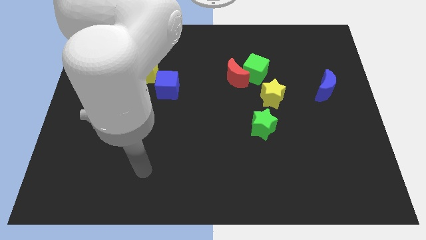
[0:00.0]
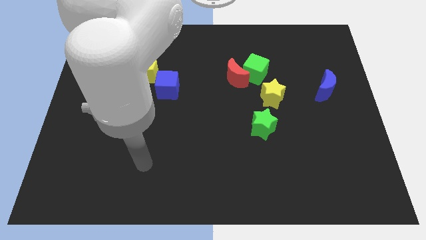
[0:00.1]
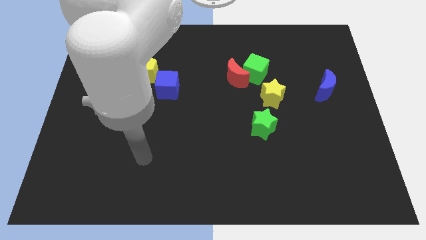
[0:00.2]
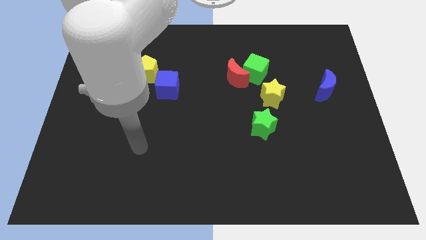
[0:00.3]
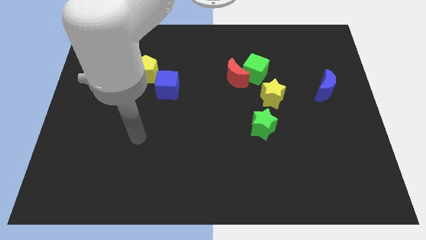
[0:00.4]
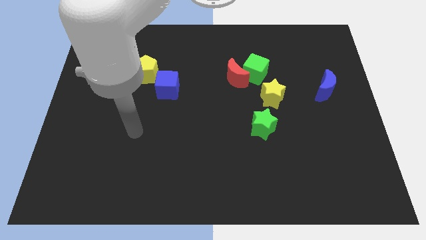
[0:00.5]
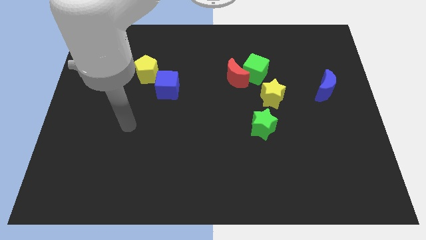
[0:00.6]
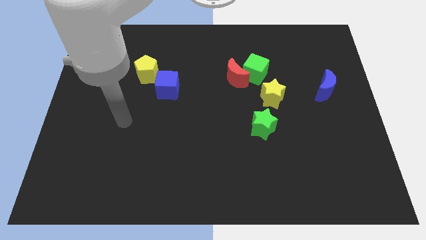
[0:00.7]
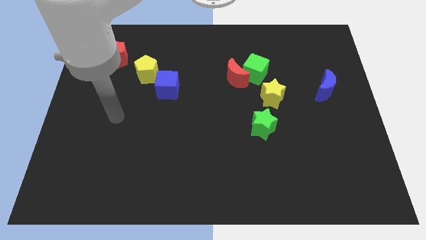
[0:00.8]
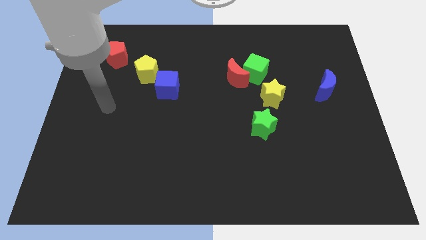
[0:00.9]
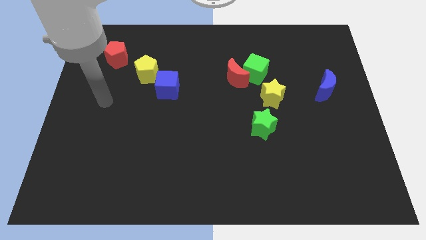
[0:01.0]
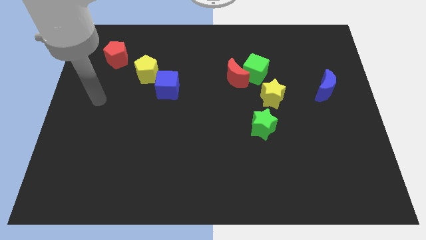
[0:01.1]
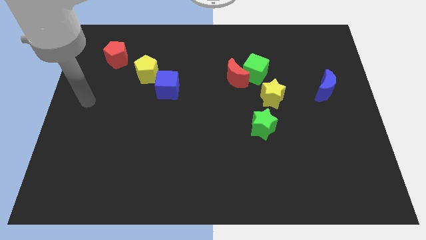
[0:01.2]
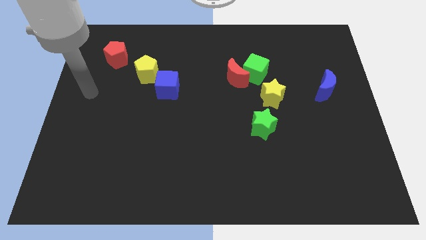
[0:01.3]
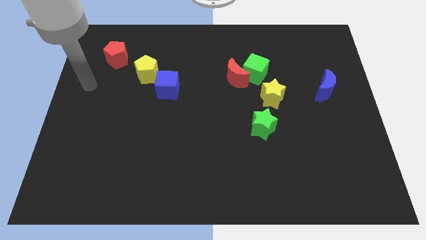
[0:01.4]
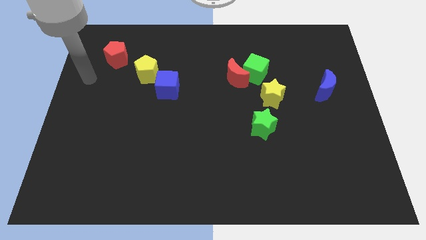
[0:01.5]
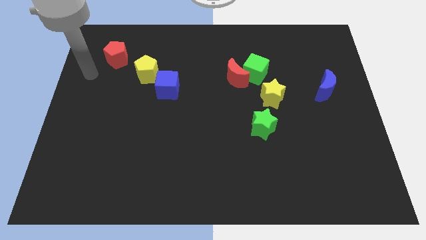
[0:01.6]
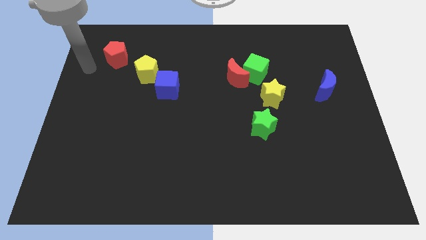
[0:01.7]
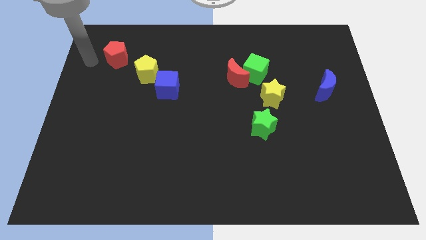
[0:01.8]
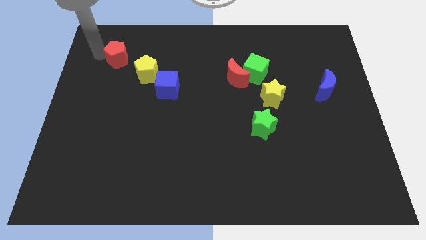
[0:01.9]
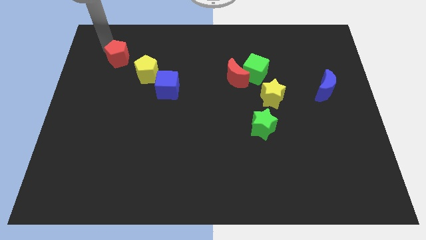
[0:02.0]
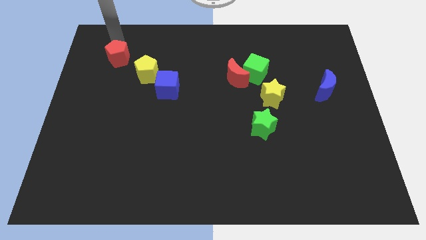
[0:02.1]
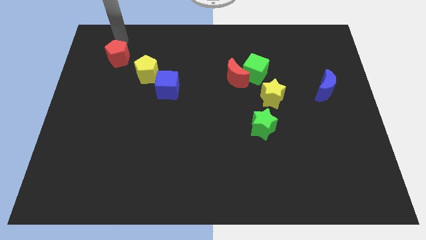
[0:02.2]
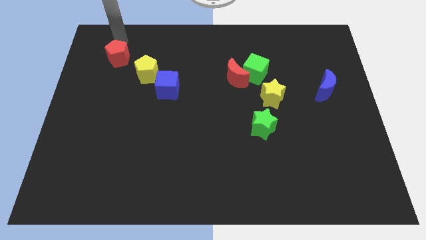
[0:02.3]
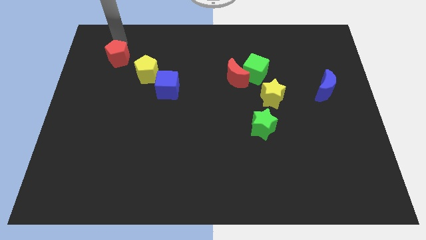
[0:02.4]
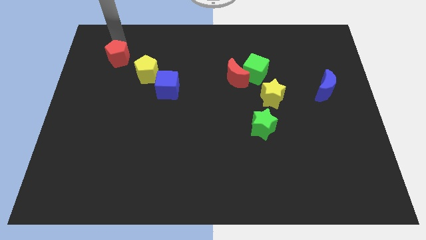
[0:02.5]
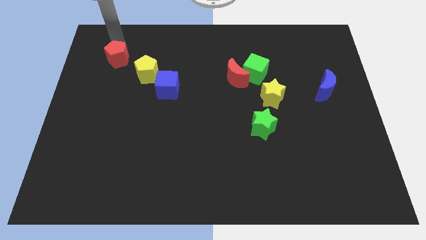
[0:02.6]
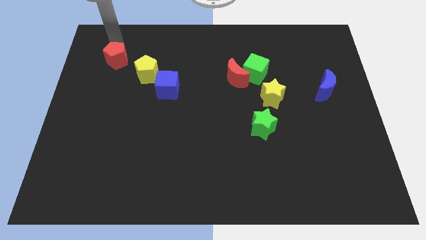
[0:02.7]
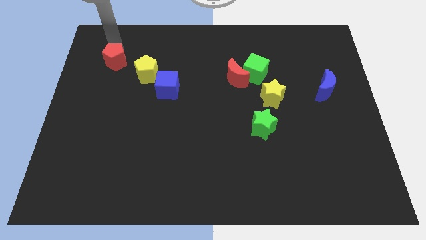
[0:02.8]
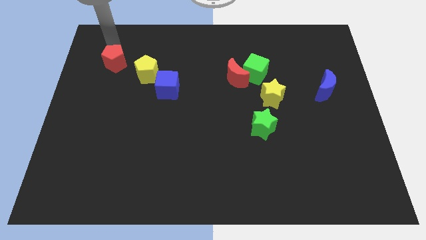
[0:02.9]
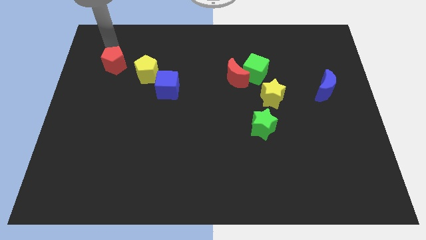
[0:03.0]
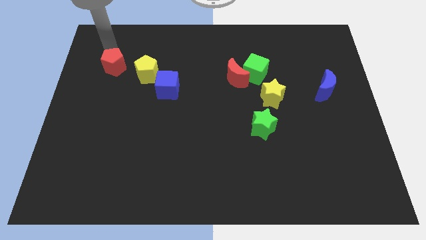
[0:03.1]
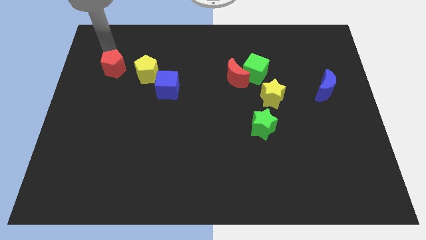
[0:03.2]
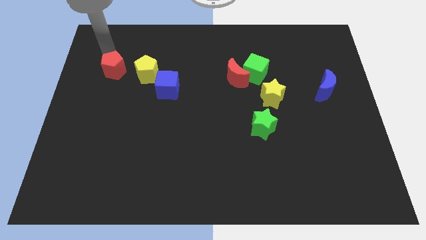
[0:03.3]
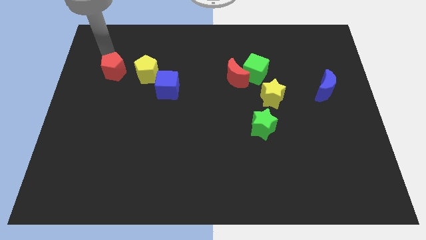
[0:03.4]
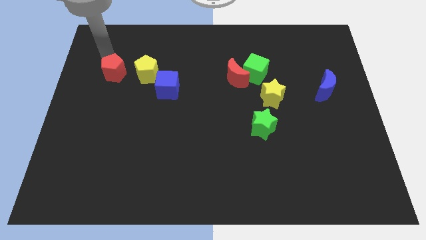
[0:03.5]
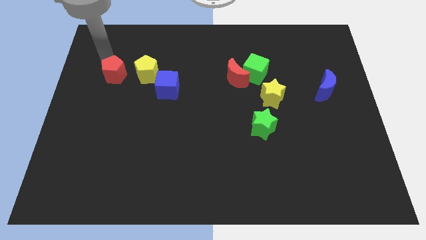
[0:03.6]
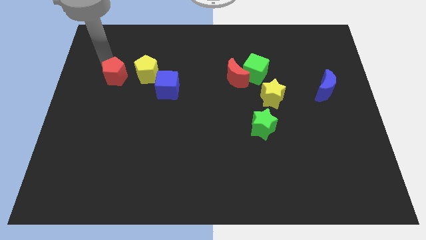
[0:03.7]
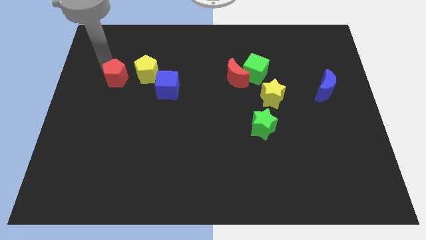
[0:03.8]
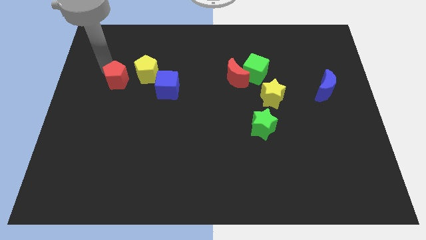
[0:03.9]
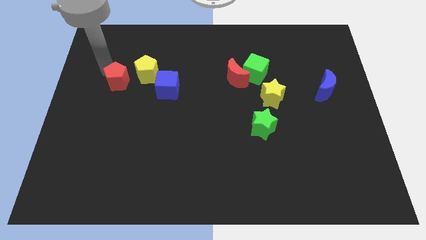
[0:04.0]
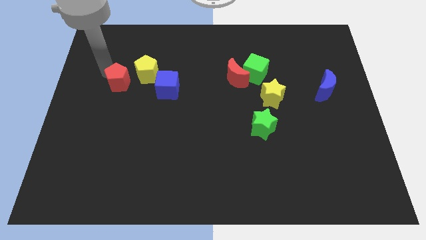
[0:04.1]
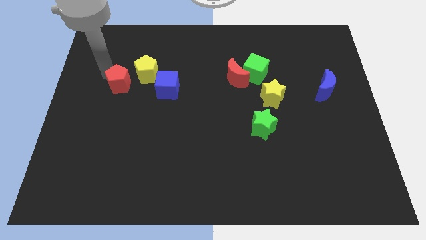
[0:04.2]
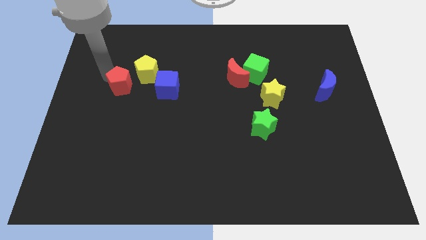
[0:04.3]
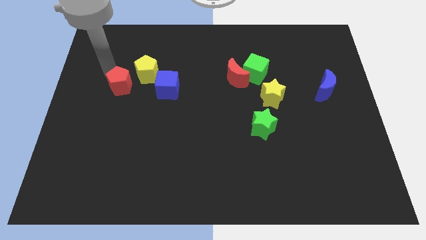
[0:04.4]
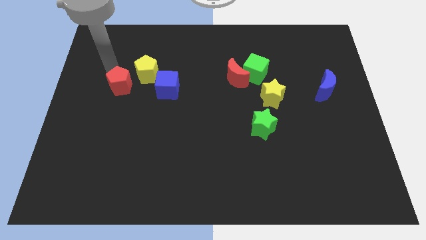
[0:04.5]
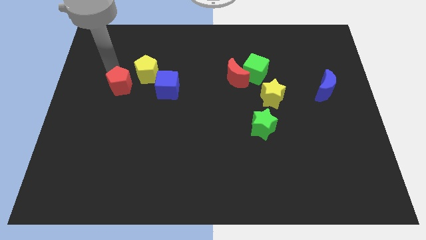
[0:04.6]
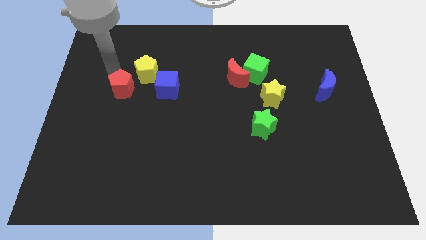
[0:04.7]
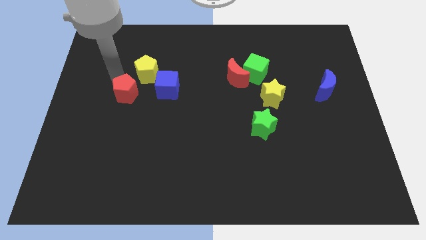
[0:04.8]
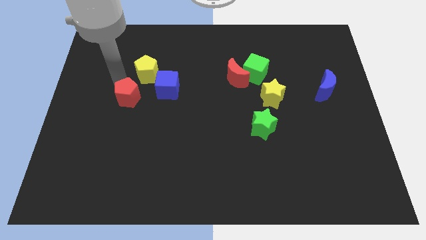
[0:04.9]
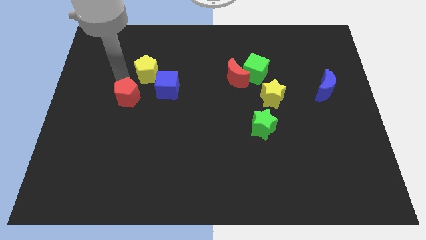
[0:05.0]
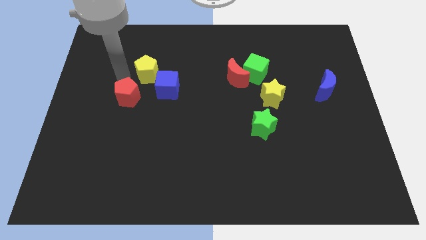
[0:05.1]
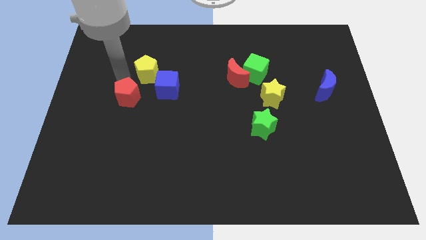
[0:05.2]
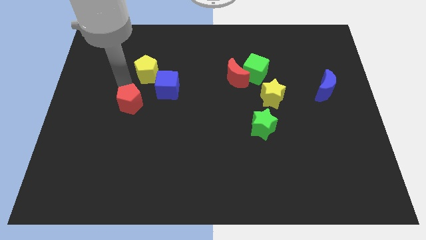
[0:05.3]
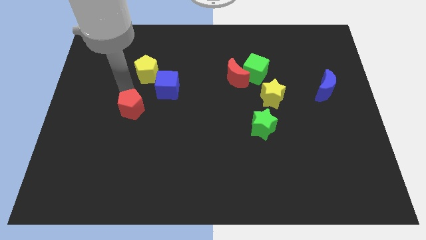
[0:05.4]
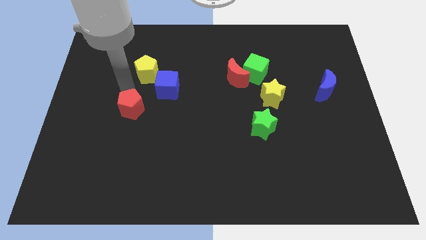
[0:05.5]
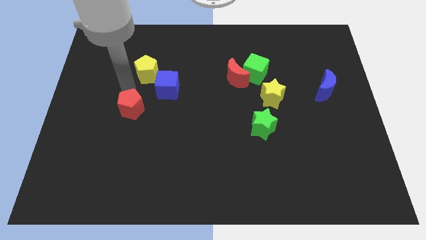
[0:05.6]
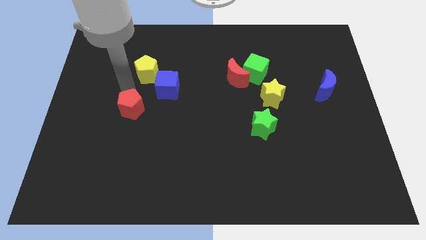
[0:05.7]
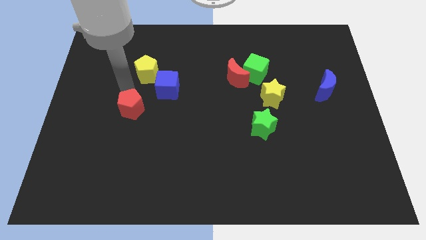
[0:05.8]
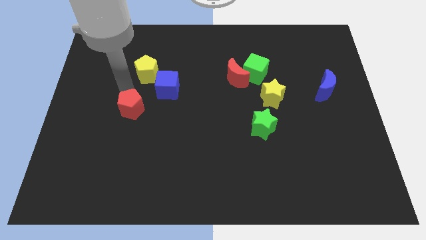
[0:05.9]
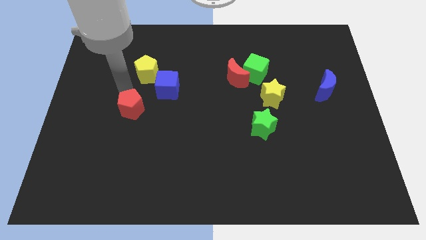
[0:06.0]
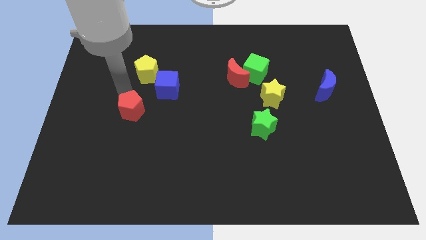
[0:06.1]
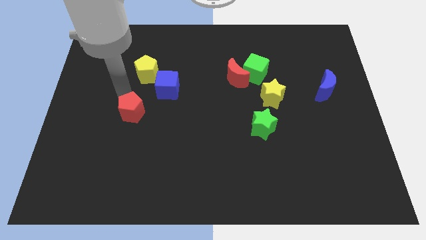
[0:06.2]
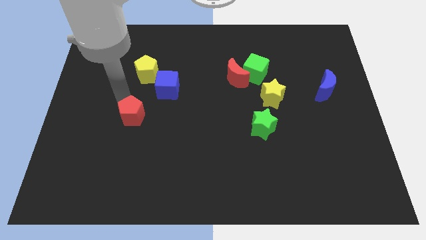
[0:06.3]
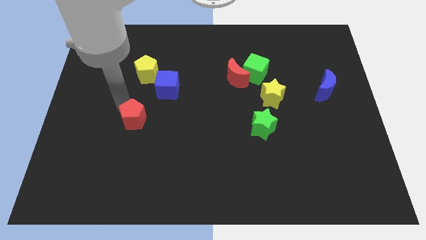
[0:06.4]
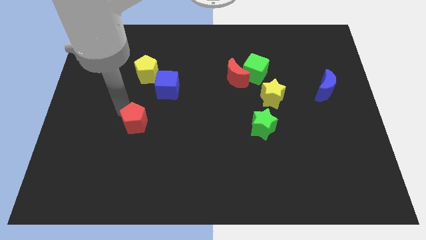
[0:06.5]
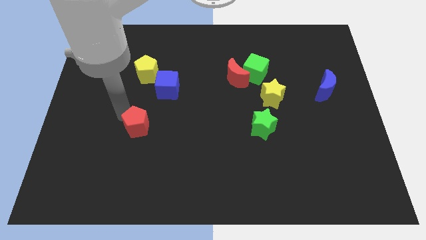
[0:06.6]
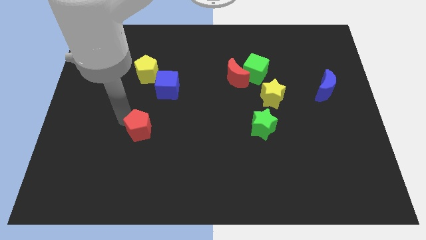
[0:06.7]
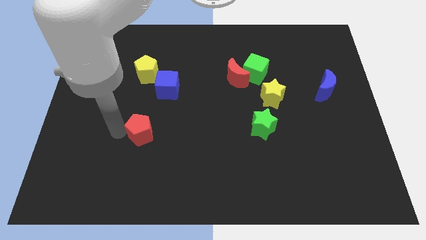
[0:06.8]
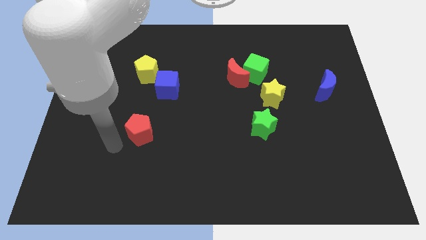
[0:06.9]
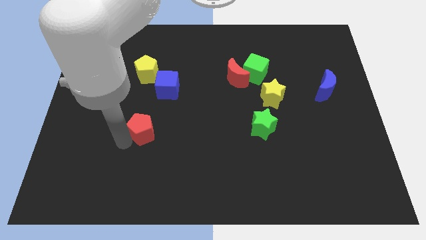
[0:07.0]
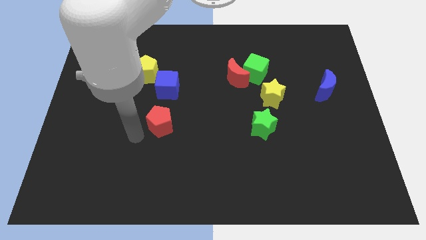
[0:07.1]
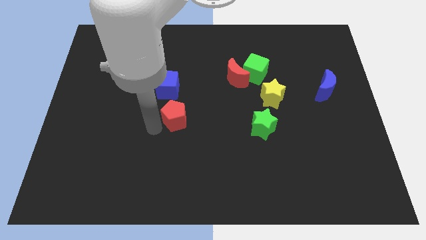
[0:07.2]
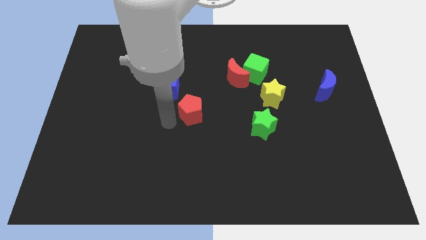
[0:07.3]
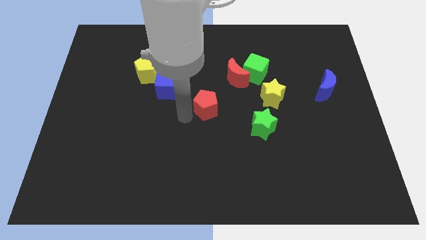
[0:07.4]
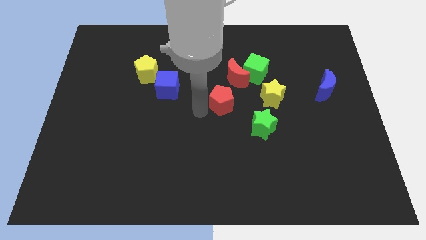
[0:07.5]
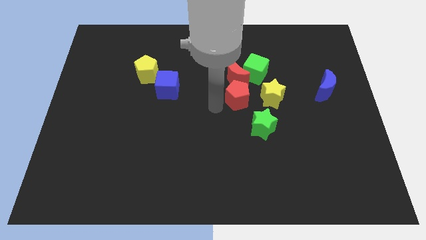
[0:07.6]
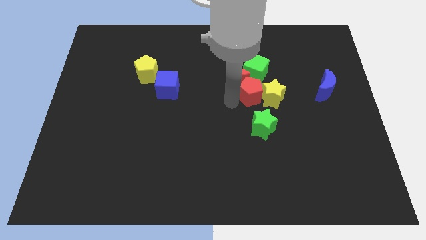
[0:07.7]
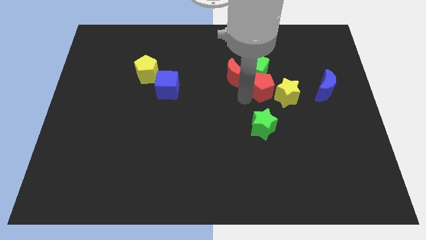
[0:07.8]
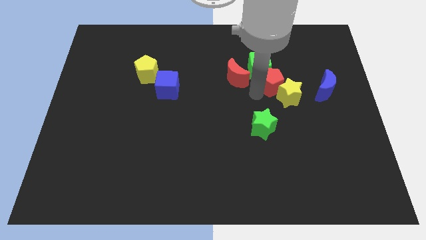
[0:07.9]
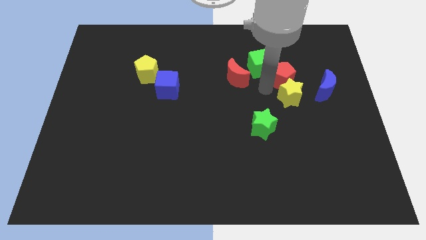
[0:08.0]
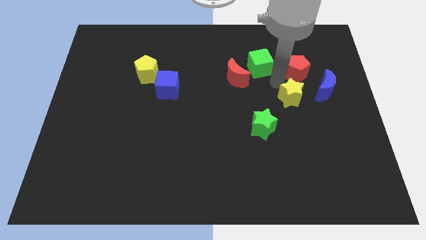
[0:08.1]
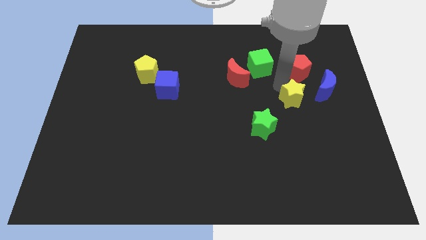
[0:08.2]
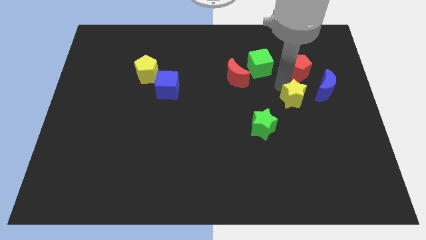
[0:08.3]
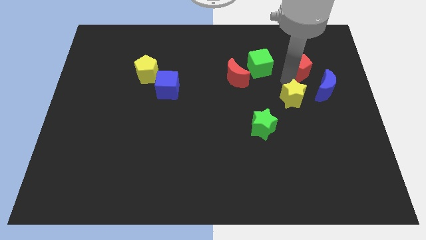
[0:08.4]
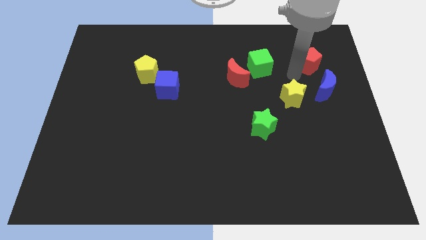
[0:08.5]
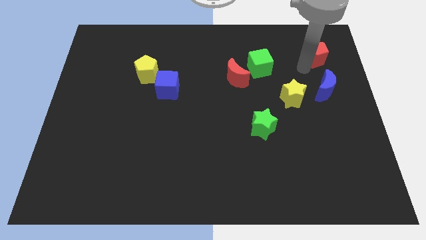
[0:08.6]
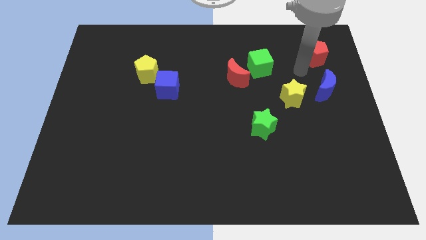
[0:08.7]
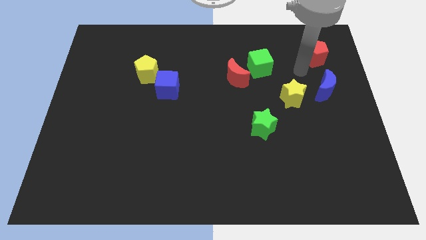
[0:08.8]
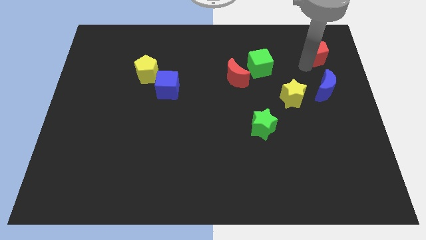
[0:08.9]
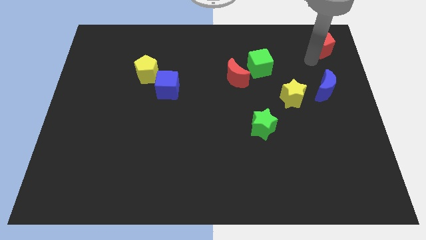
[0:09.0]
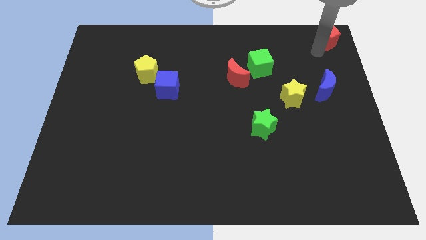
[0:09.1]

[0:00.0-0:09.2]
slide the red pentagon to the top right
